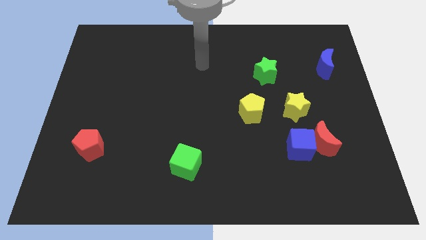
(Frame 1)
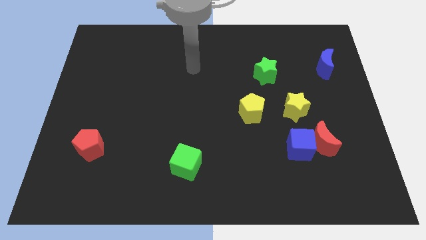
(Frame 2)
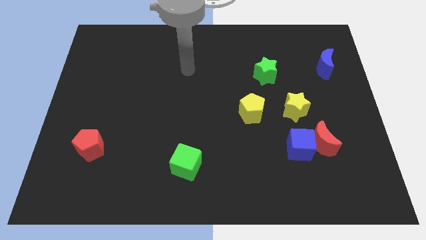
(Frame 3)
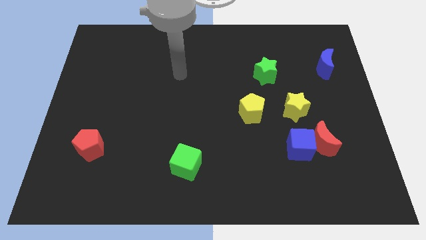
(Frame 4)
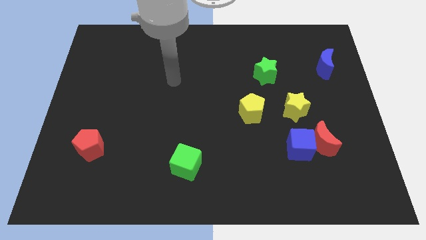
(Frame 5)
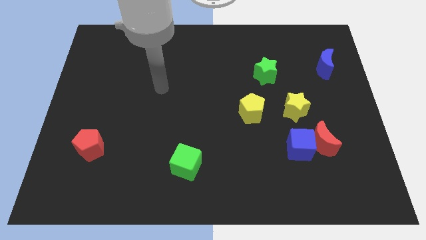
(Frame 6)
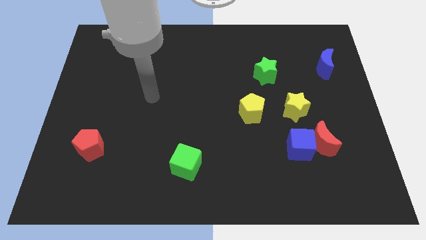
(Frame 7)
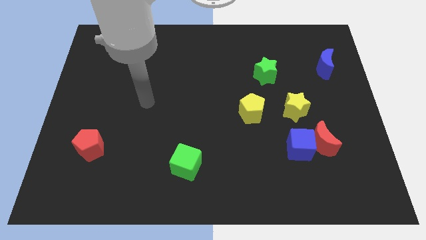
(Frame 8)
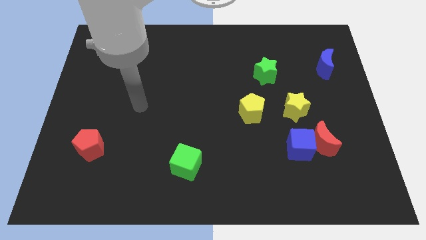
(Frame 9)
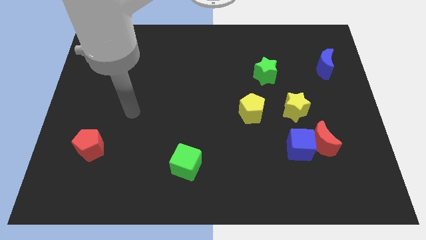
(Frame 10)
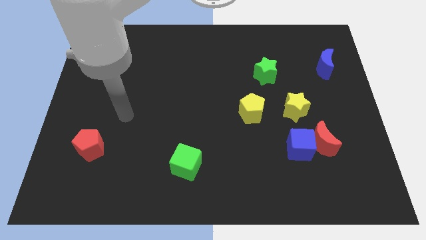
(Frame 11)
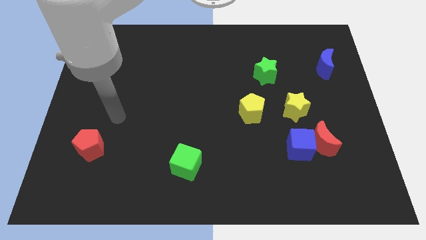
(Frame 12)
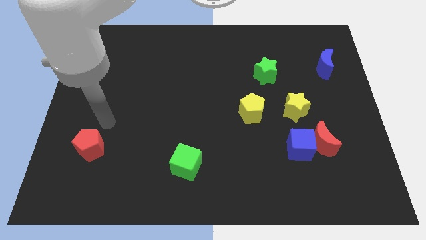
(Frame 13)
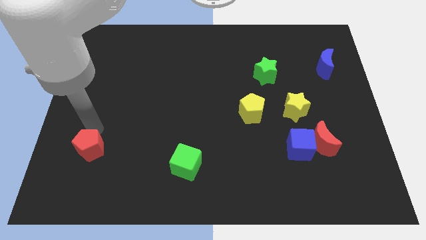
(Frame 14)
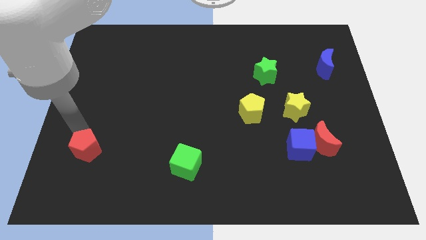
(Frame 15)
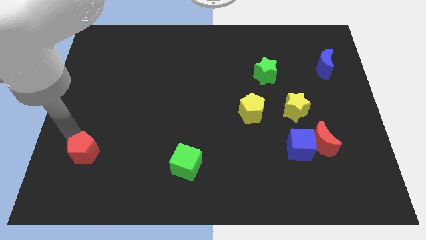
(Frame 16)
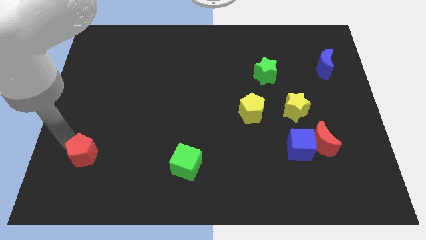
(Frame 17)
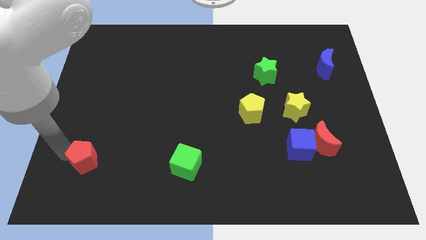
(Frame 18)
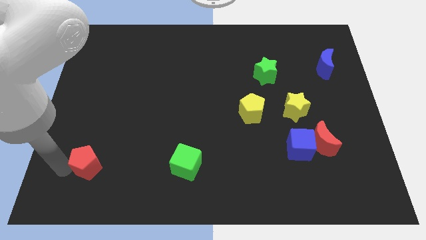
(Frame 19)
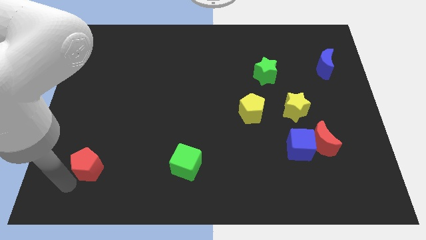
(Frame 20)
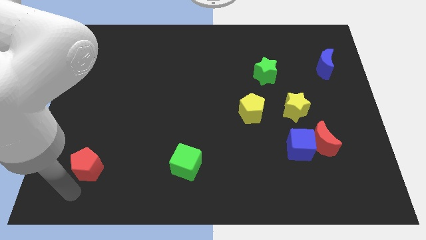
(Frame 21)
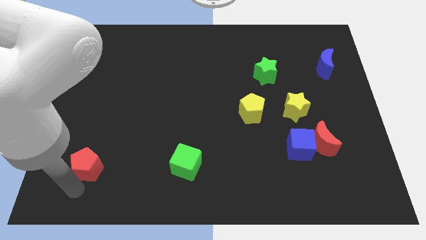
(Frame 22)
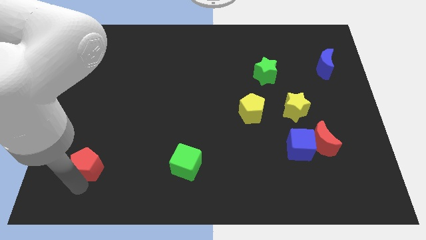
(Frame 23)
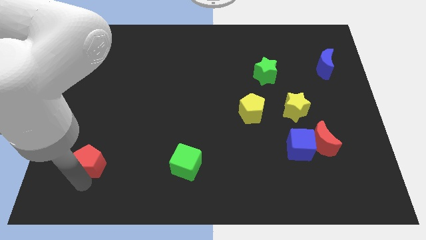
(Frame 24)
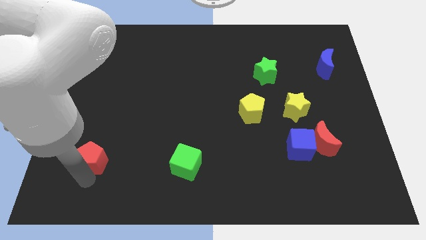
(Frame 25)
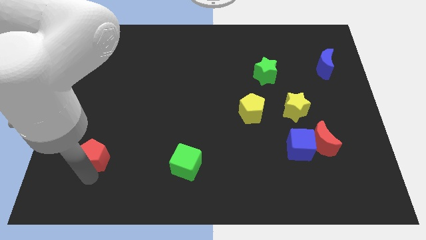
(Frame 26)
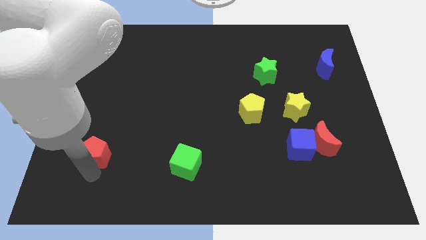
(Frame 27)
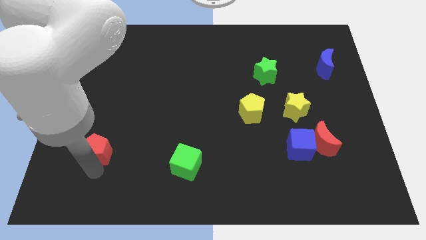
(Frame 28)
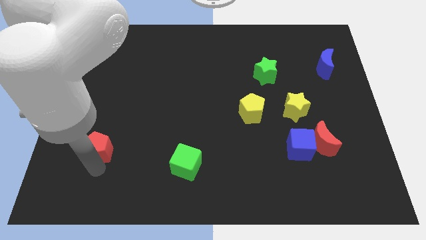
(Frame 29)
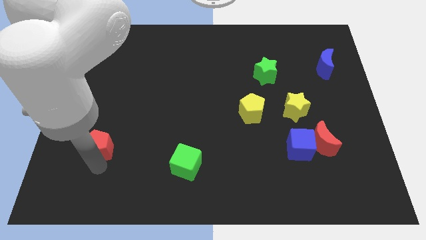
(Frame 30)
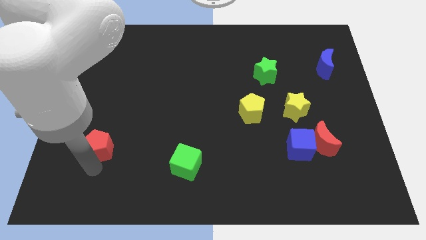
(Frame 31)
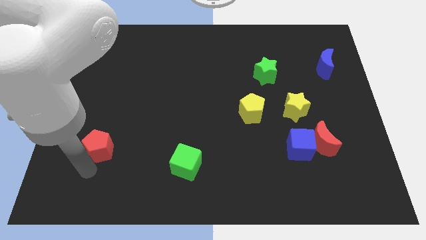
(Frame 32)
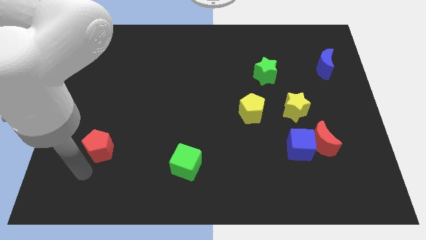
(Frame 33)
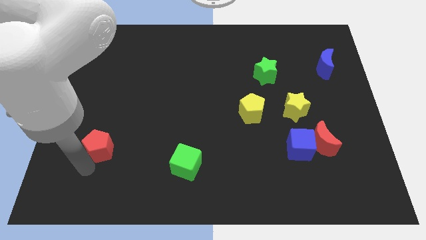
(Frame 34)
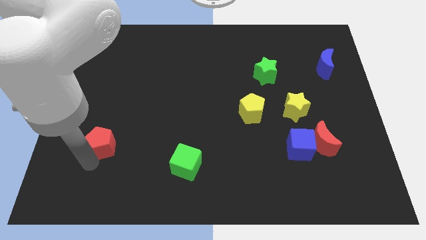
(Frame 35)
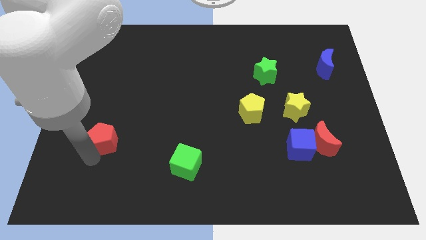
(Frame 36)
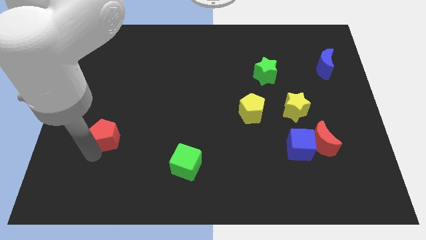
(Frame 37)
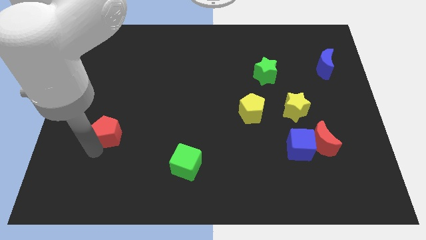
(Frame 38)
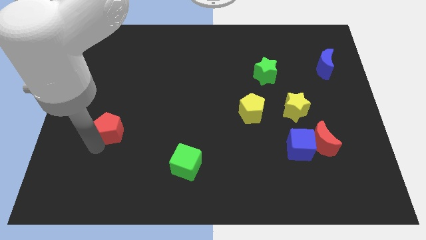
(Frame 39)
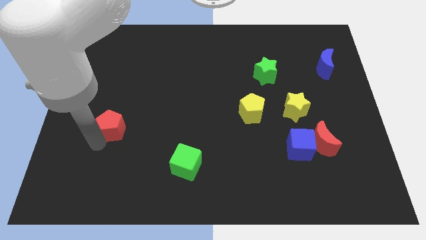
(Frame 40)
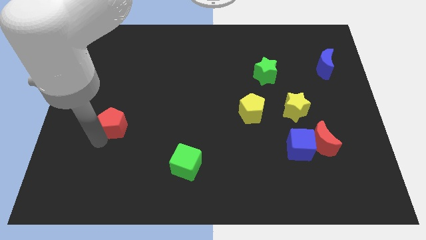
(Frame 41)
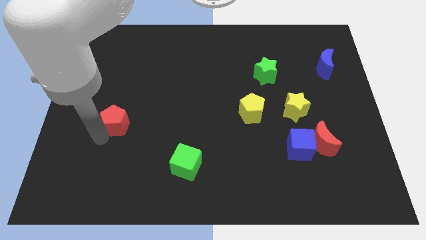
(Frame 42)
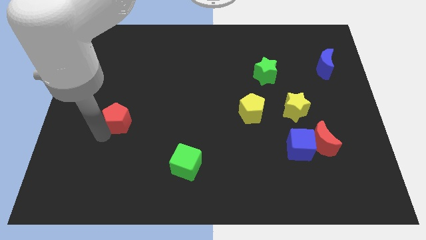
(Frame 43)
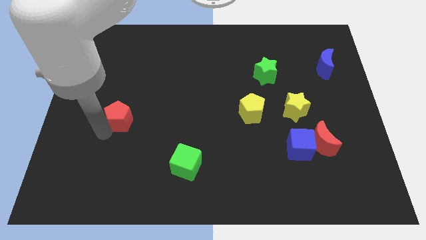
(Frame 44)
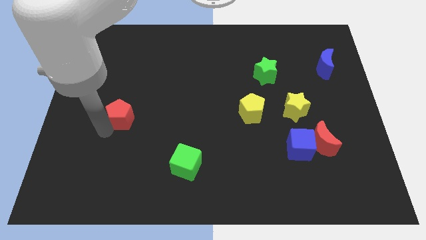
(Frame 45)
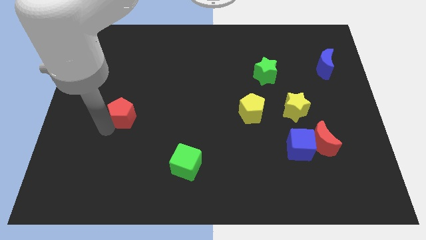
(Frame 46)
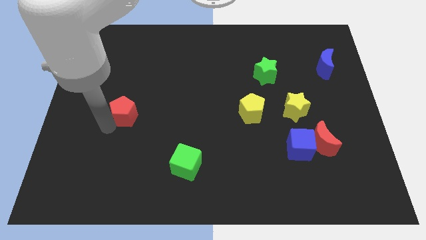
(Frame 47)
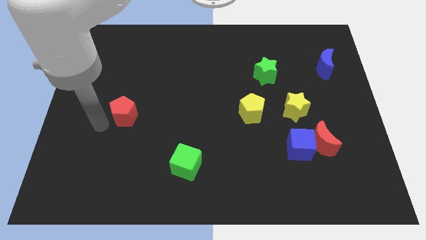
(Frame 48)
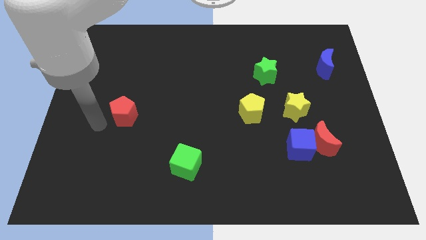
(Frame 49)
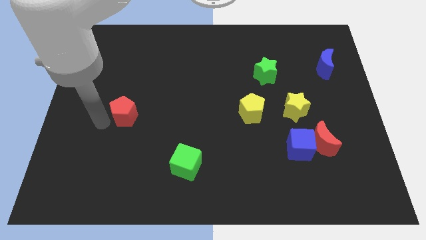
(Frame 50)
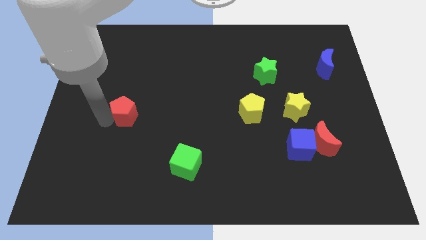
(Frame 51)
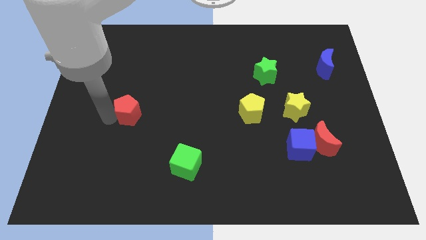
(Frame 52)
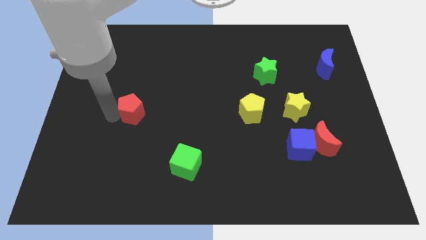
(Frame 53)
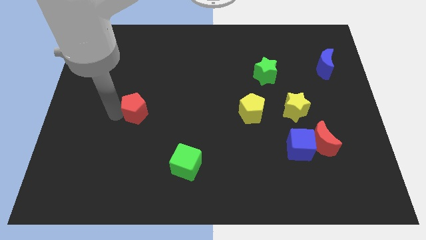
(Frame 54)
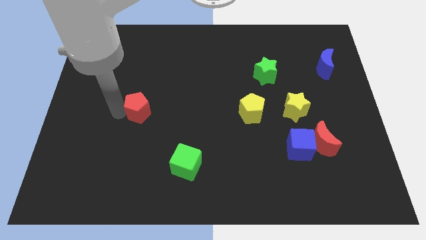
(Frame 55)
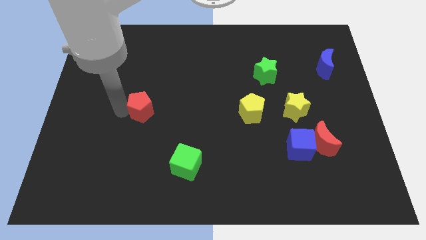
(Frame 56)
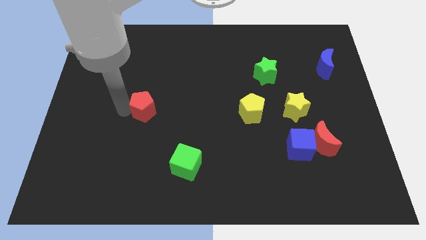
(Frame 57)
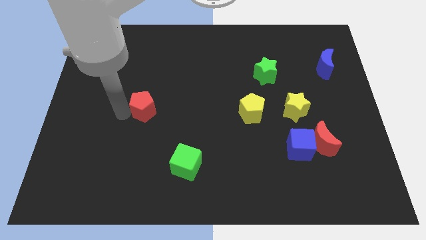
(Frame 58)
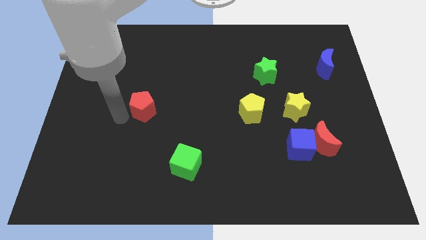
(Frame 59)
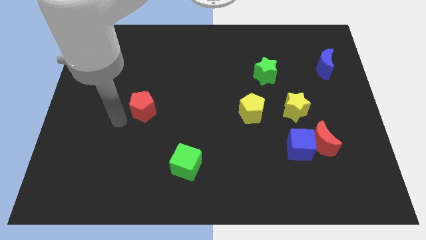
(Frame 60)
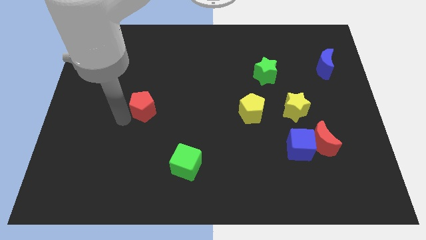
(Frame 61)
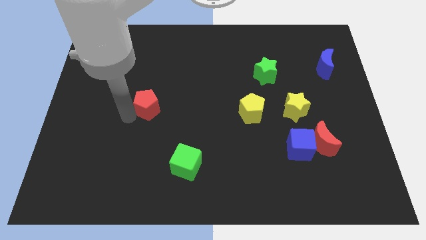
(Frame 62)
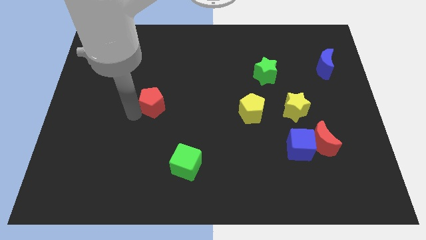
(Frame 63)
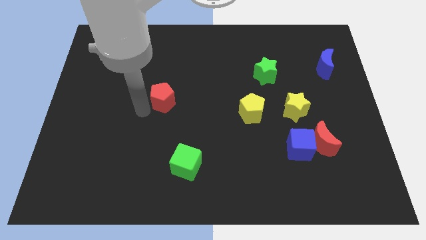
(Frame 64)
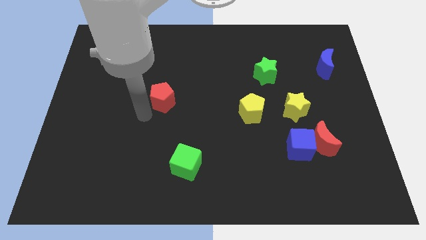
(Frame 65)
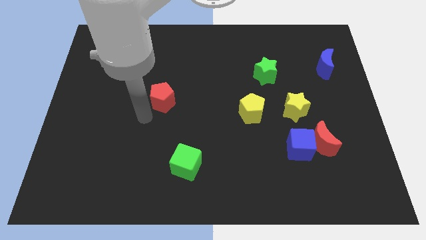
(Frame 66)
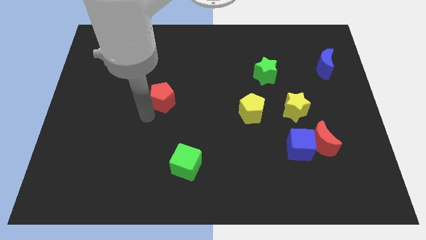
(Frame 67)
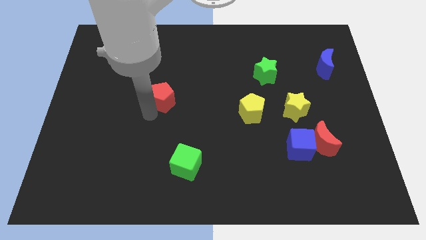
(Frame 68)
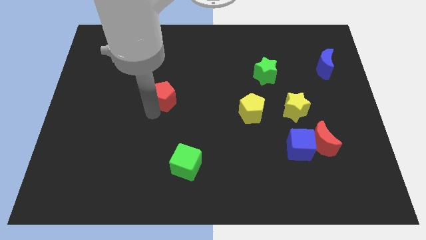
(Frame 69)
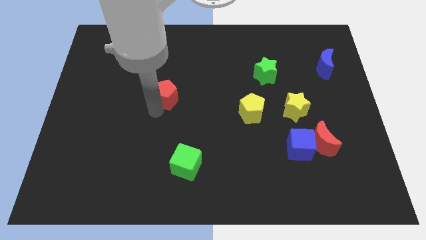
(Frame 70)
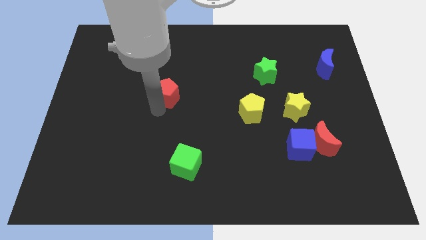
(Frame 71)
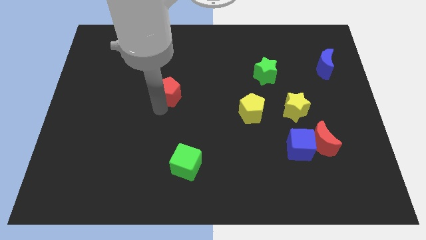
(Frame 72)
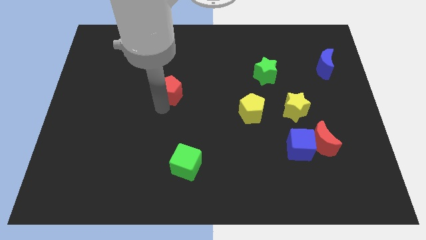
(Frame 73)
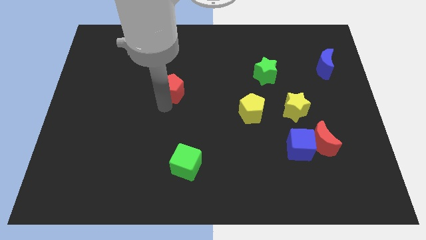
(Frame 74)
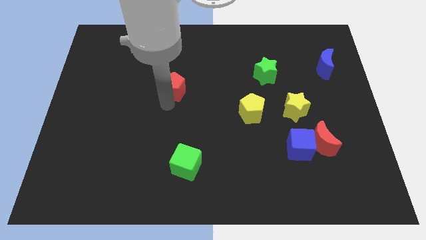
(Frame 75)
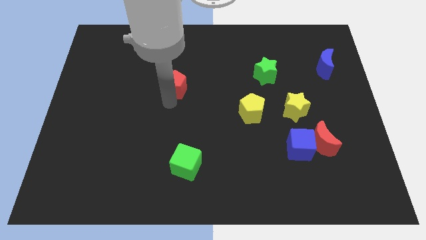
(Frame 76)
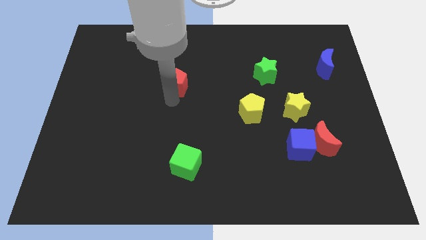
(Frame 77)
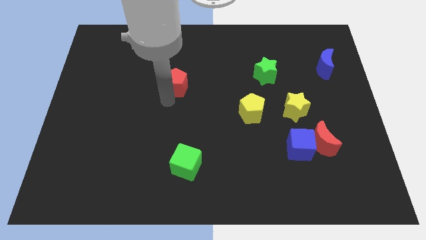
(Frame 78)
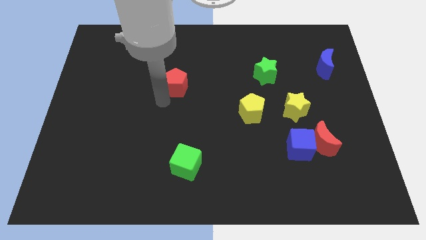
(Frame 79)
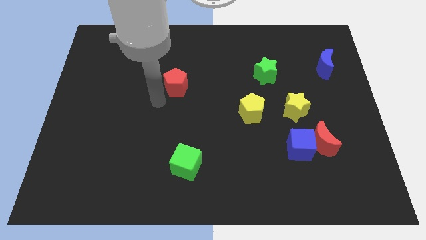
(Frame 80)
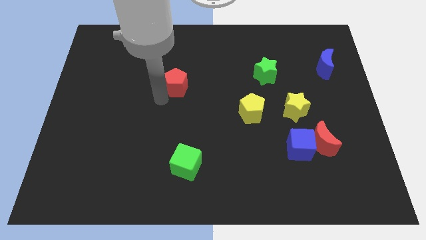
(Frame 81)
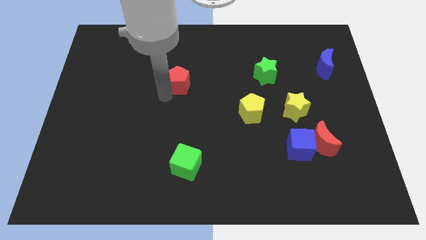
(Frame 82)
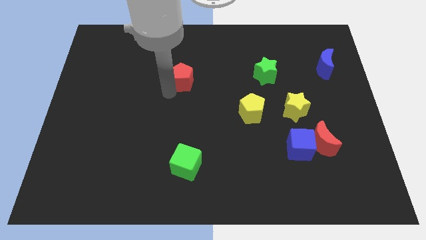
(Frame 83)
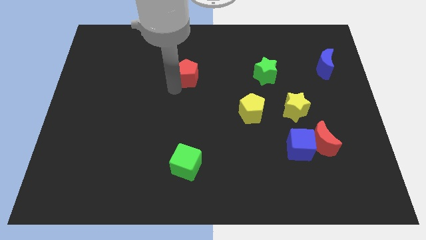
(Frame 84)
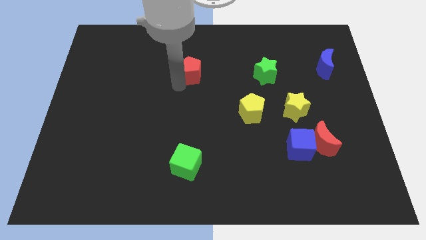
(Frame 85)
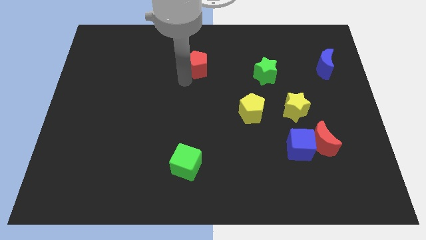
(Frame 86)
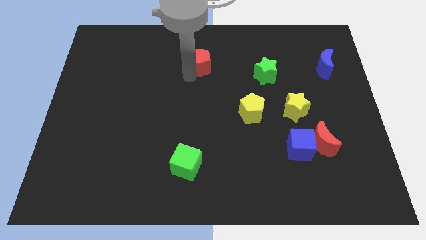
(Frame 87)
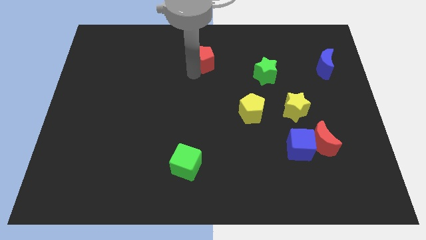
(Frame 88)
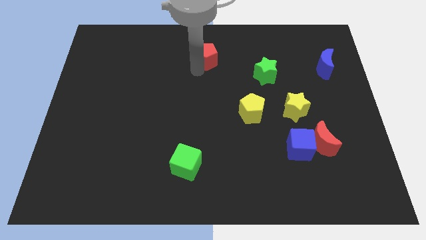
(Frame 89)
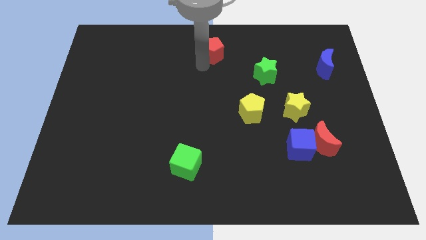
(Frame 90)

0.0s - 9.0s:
put the red pentagon to the top
